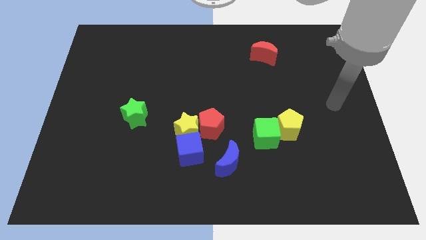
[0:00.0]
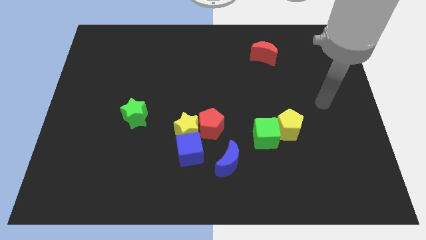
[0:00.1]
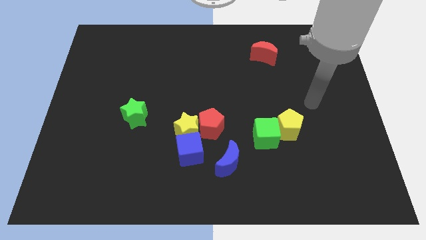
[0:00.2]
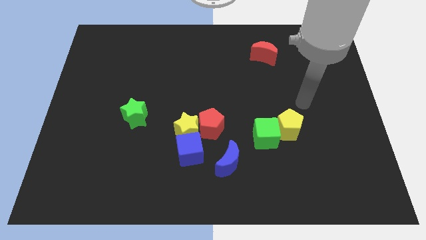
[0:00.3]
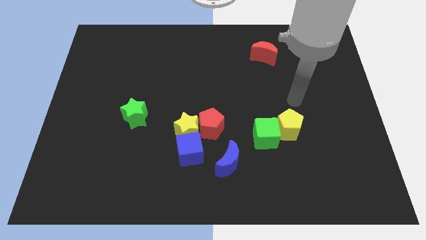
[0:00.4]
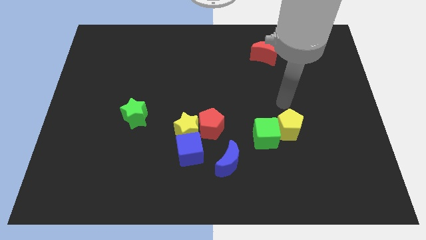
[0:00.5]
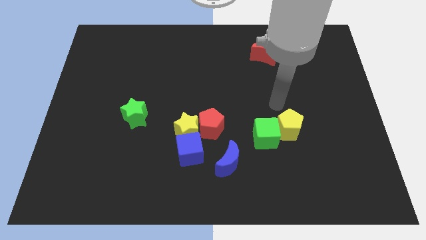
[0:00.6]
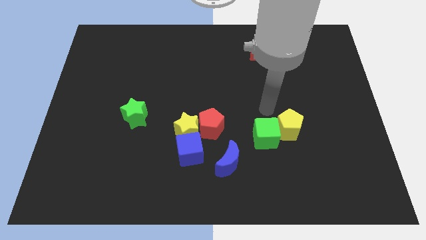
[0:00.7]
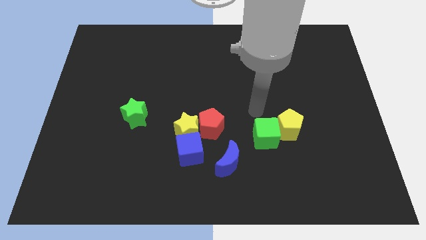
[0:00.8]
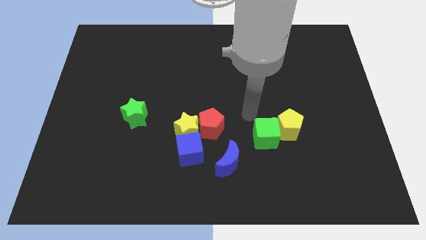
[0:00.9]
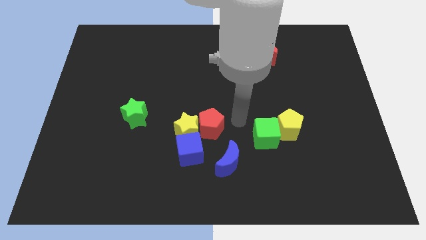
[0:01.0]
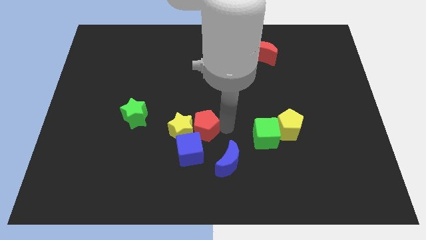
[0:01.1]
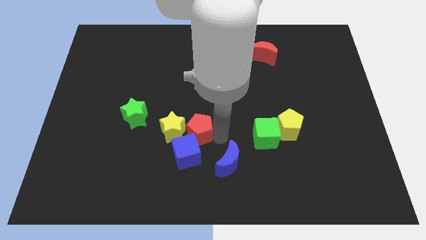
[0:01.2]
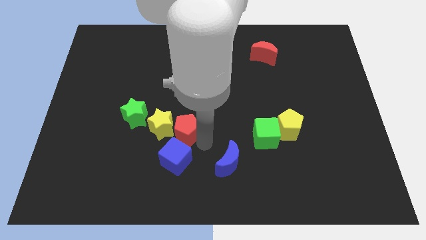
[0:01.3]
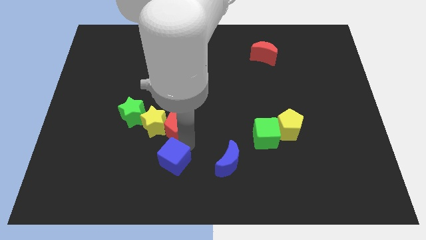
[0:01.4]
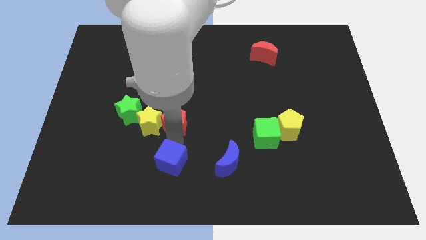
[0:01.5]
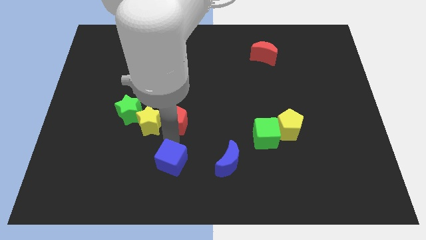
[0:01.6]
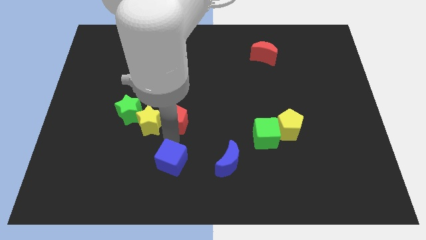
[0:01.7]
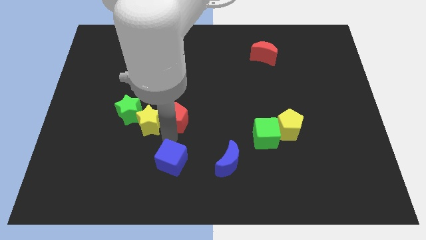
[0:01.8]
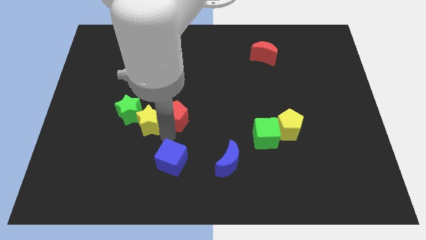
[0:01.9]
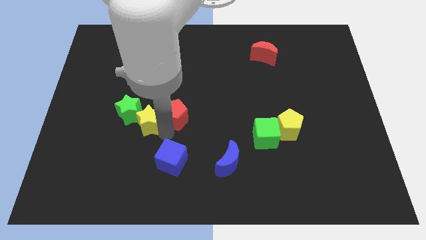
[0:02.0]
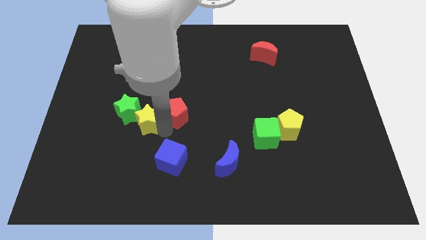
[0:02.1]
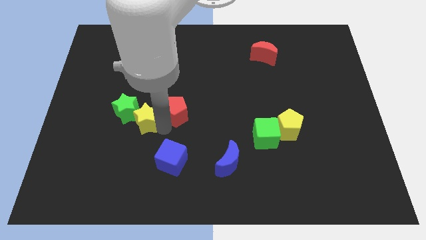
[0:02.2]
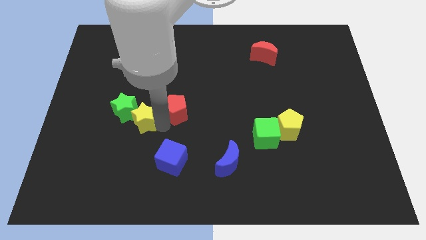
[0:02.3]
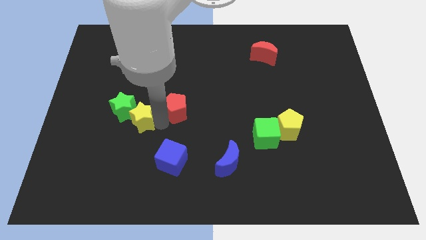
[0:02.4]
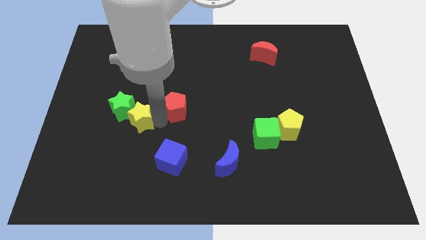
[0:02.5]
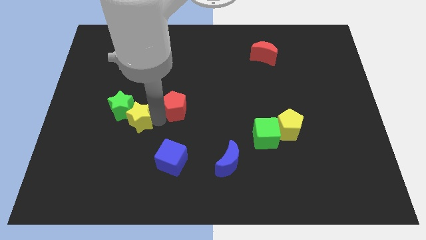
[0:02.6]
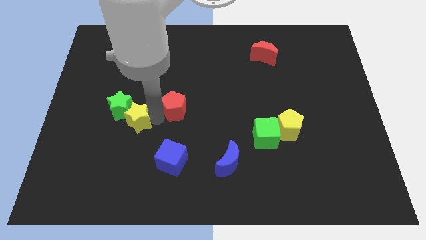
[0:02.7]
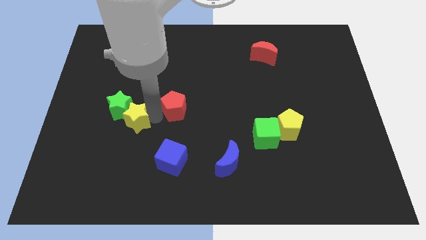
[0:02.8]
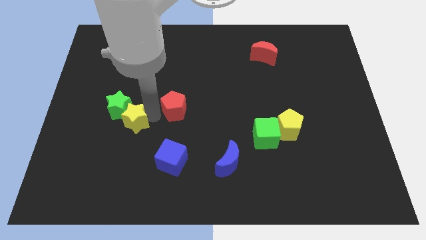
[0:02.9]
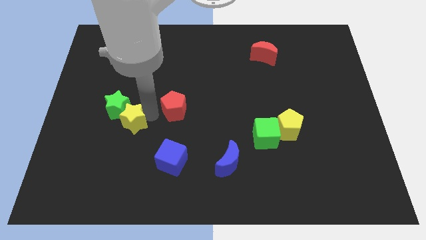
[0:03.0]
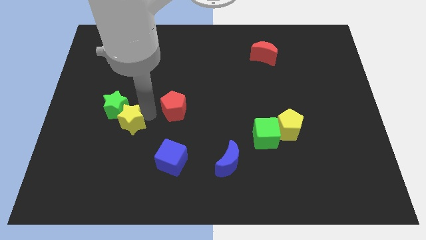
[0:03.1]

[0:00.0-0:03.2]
move the yellow star away from the red pentagon and blue cube

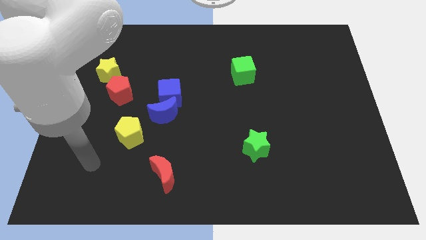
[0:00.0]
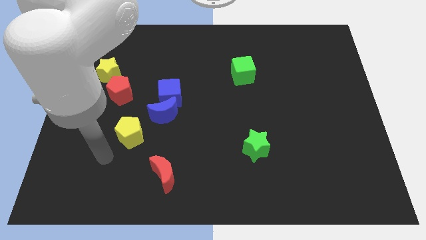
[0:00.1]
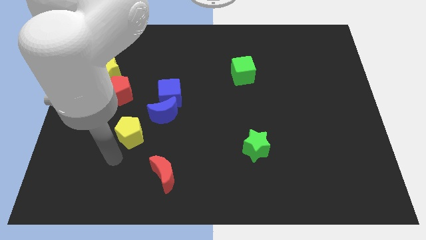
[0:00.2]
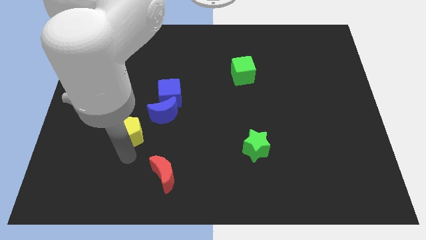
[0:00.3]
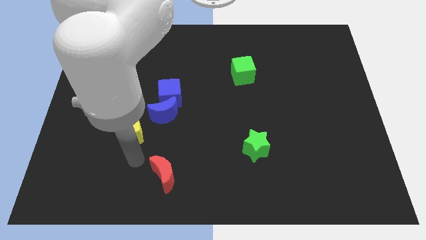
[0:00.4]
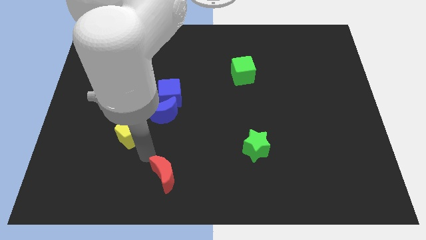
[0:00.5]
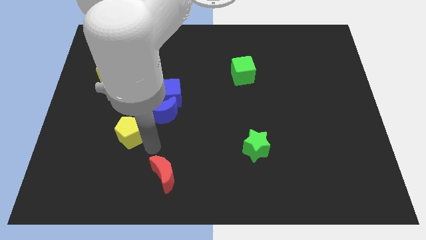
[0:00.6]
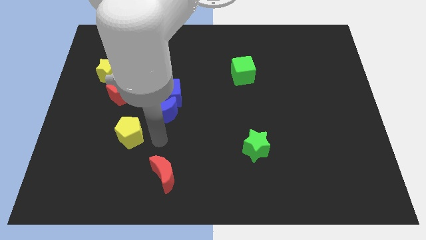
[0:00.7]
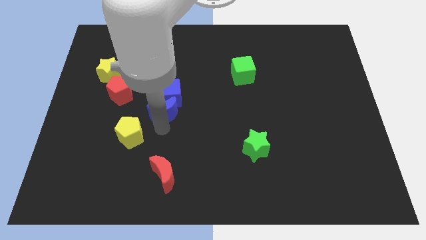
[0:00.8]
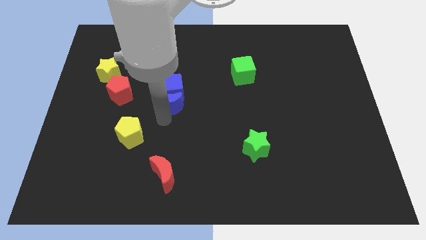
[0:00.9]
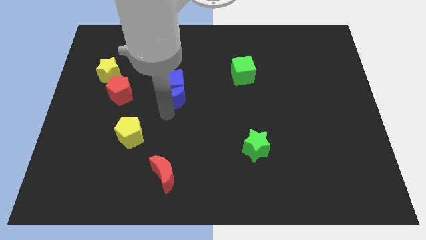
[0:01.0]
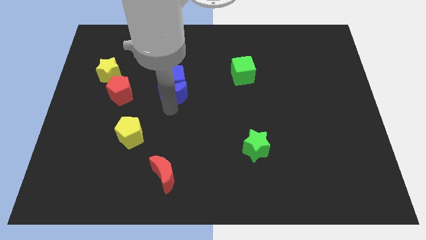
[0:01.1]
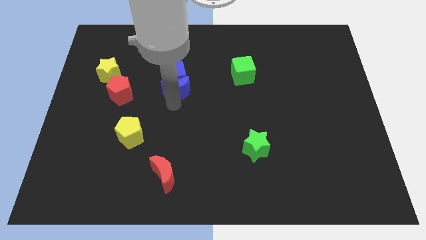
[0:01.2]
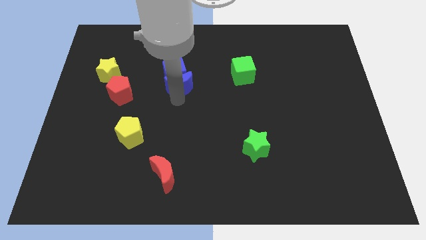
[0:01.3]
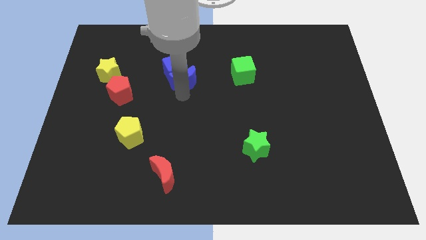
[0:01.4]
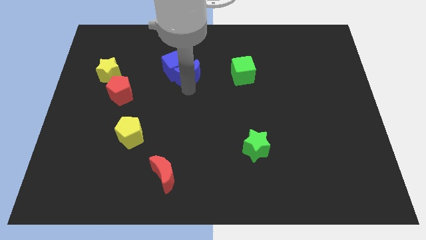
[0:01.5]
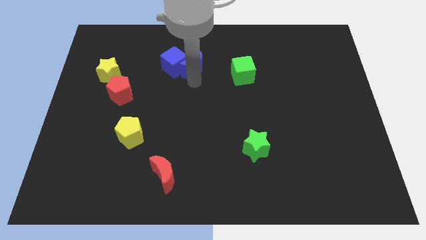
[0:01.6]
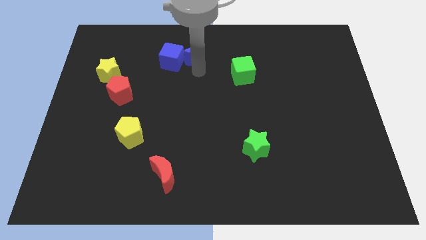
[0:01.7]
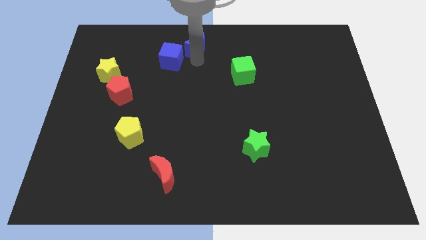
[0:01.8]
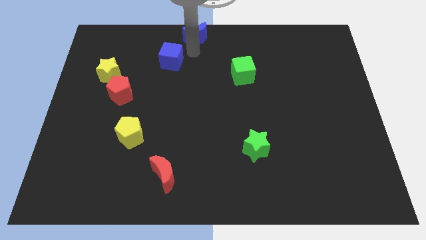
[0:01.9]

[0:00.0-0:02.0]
move the blue cube away from the blue moon

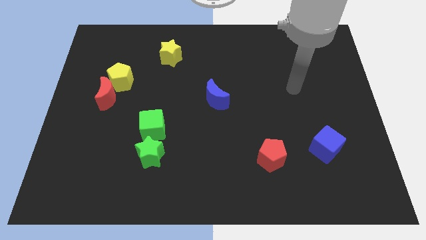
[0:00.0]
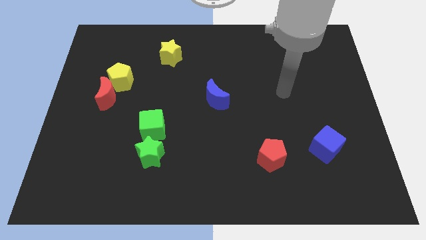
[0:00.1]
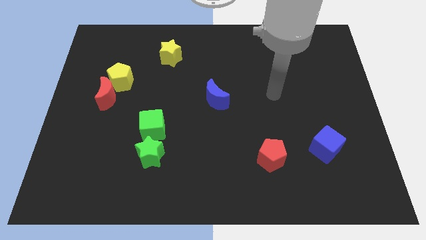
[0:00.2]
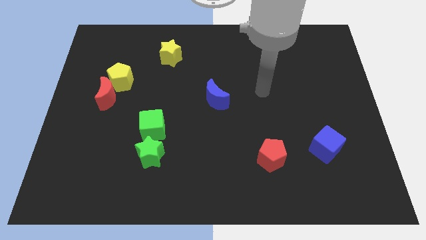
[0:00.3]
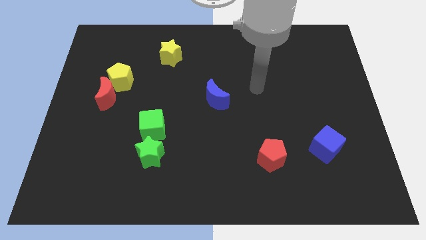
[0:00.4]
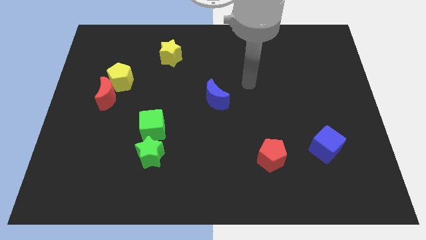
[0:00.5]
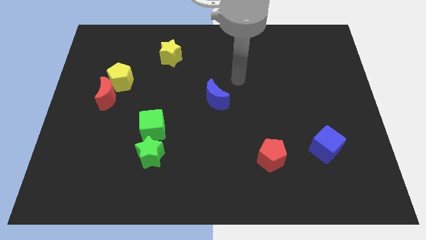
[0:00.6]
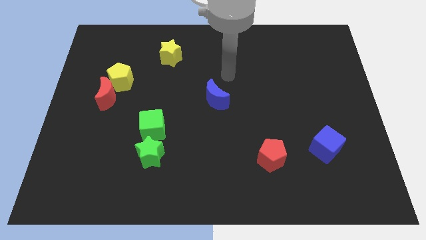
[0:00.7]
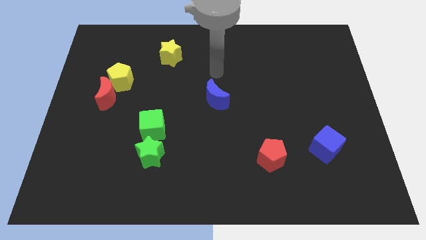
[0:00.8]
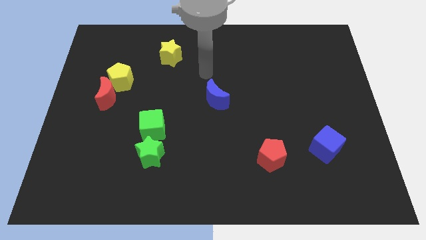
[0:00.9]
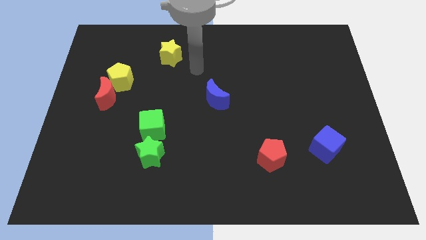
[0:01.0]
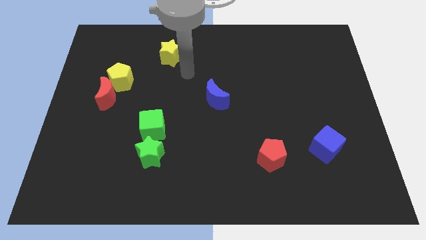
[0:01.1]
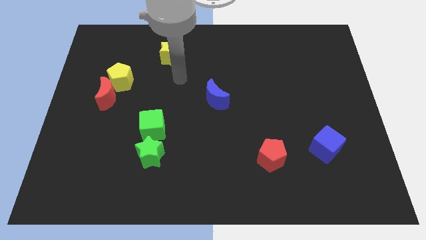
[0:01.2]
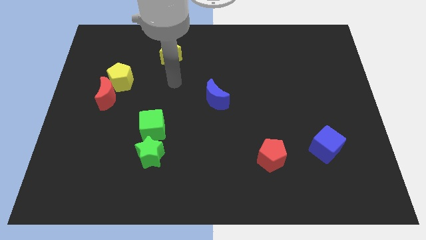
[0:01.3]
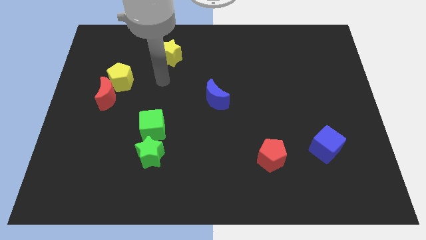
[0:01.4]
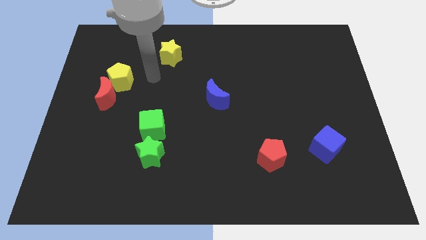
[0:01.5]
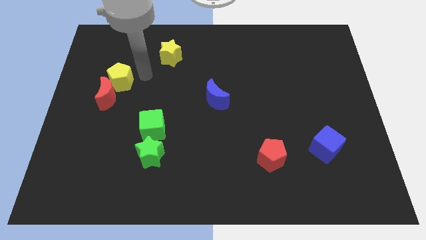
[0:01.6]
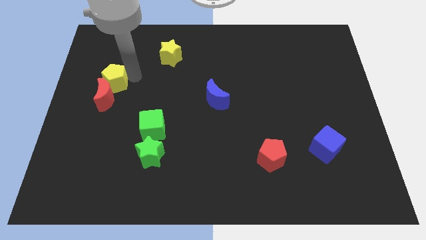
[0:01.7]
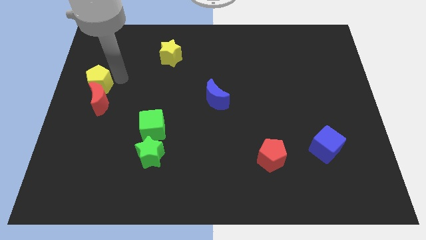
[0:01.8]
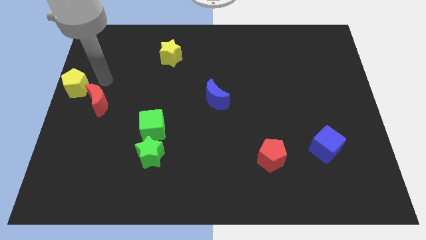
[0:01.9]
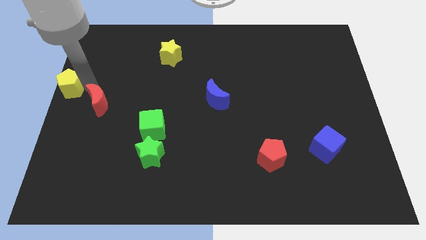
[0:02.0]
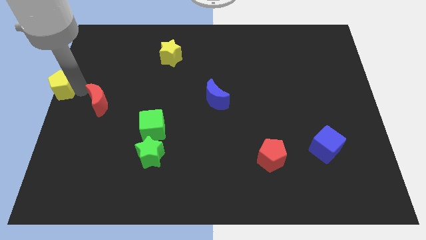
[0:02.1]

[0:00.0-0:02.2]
pull the red moon apart from the yellow pentagon

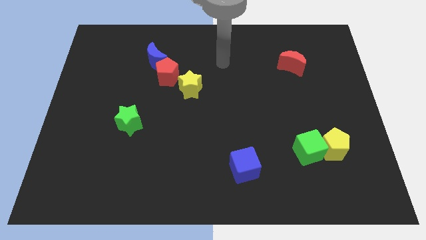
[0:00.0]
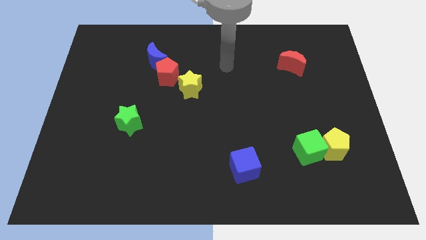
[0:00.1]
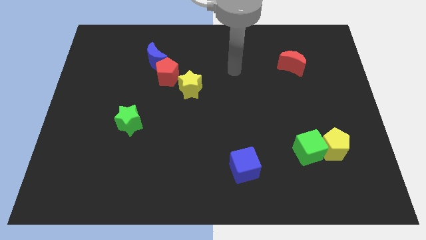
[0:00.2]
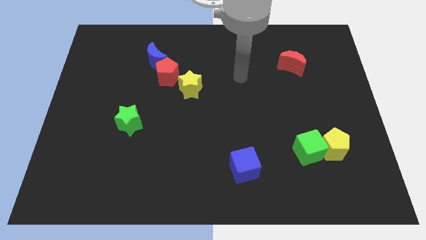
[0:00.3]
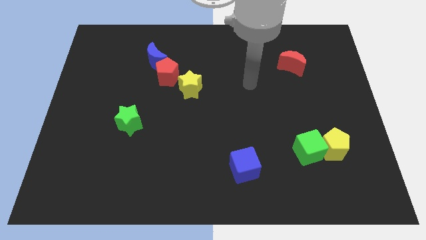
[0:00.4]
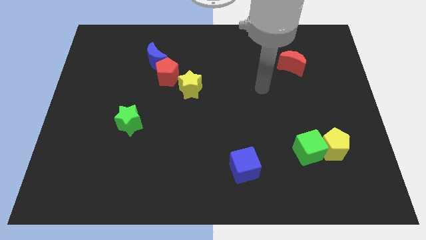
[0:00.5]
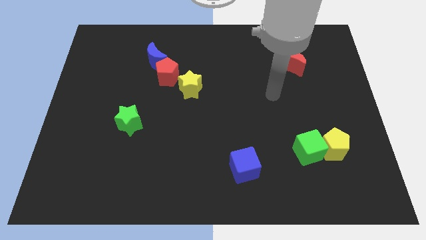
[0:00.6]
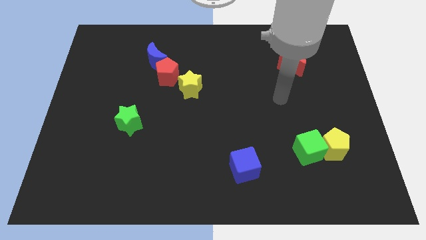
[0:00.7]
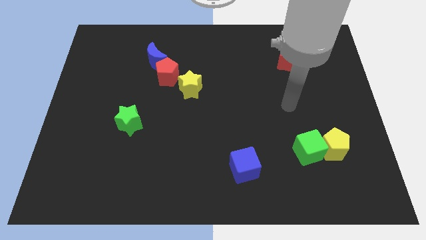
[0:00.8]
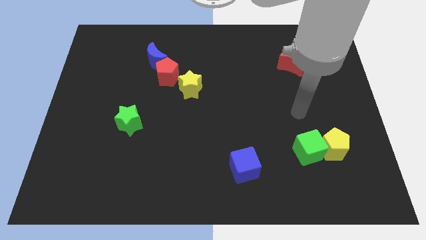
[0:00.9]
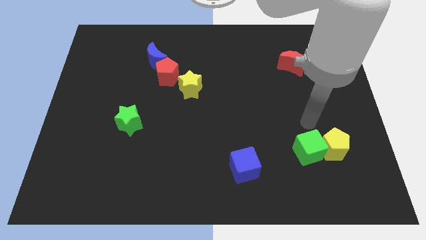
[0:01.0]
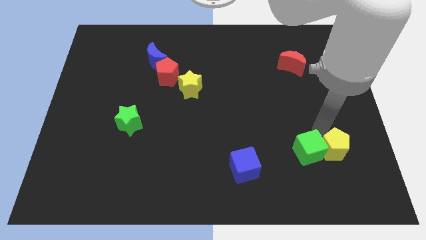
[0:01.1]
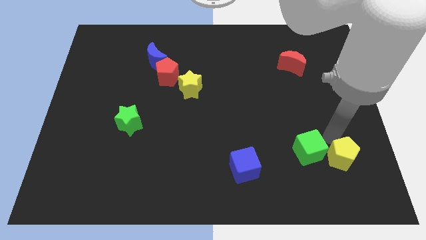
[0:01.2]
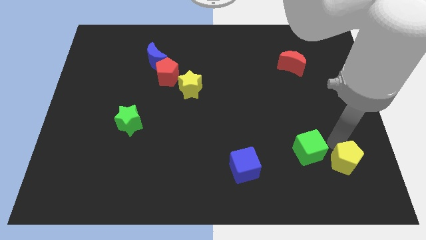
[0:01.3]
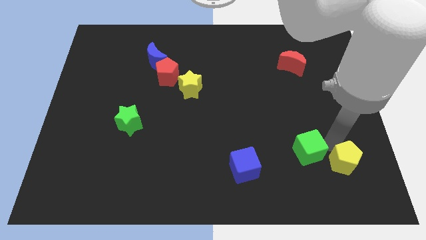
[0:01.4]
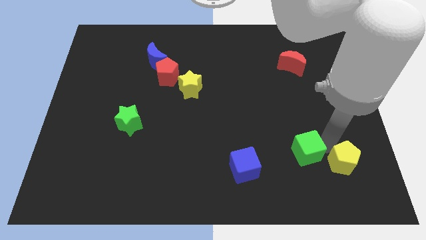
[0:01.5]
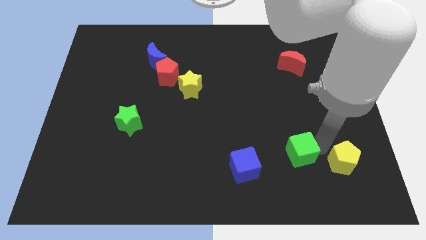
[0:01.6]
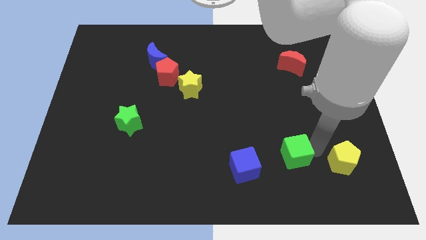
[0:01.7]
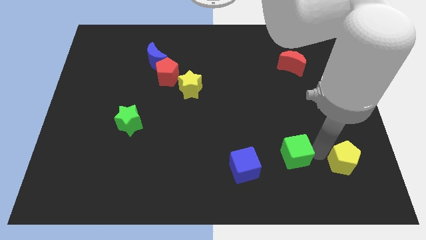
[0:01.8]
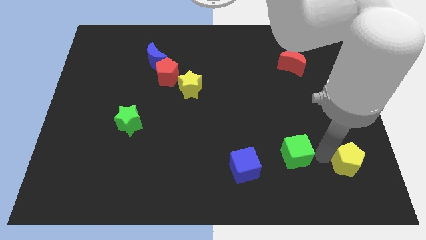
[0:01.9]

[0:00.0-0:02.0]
pull the green cube apart from the yellow pentagon
